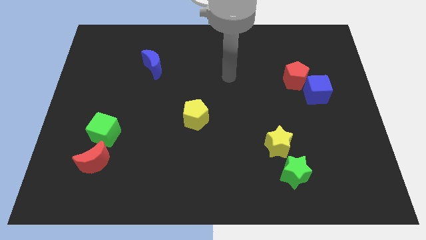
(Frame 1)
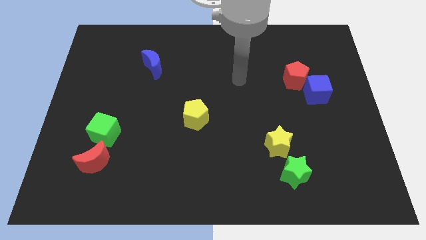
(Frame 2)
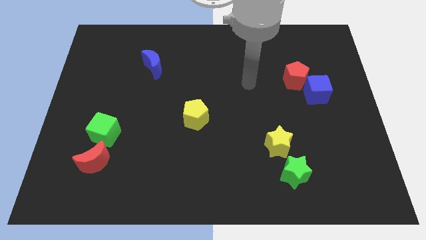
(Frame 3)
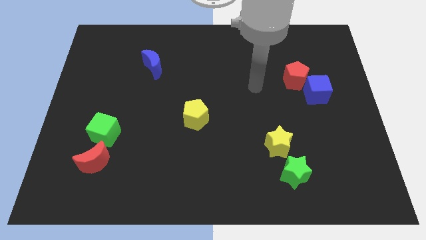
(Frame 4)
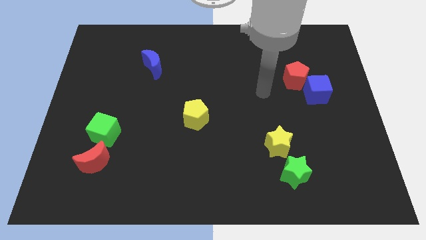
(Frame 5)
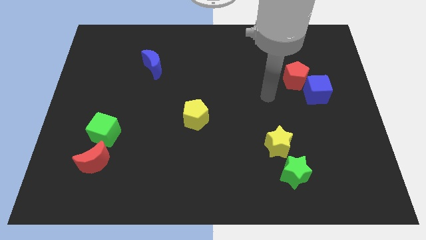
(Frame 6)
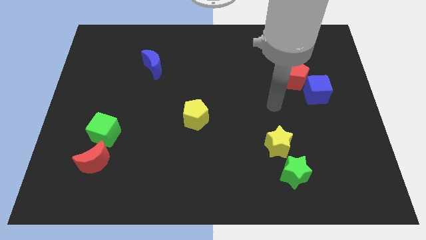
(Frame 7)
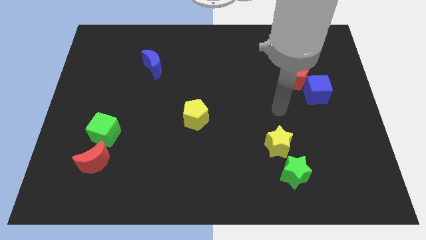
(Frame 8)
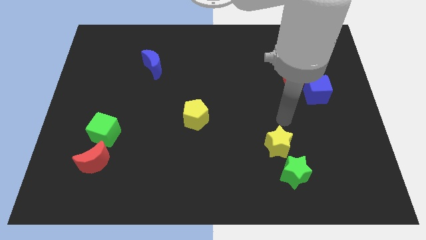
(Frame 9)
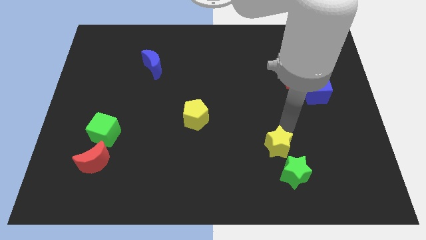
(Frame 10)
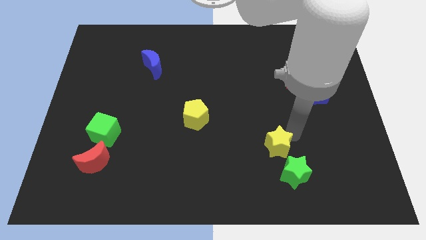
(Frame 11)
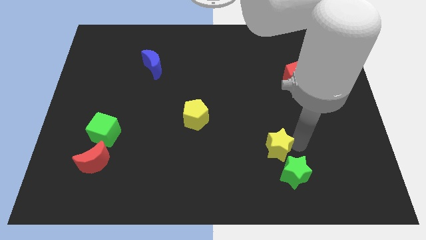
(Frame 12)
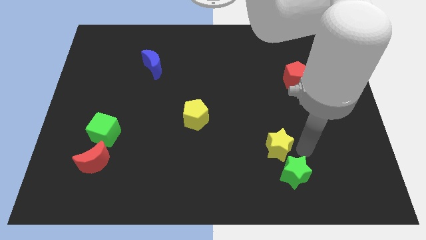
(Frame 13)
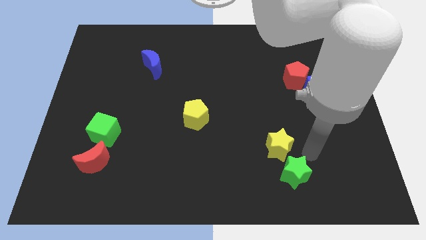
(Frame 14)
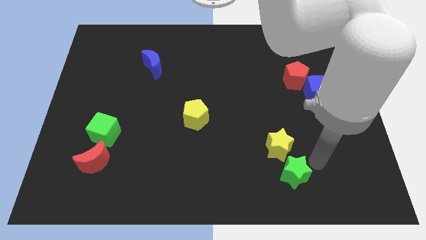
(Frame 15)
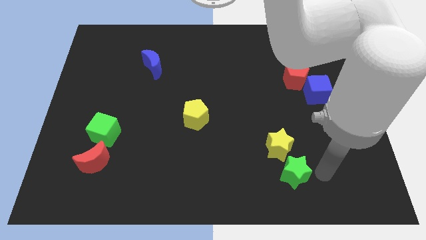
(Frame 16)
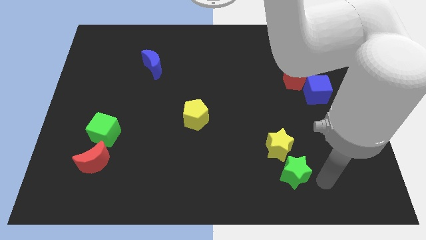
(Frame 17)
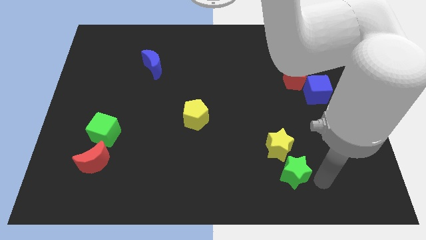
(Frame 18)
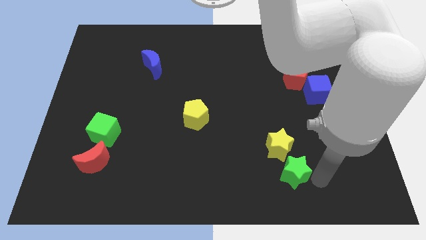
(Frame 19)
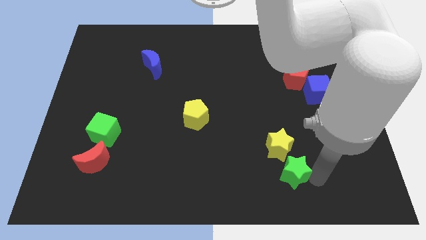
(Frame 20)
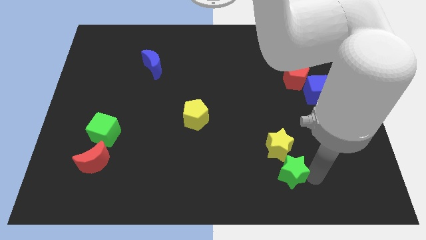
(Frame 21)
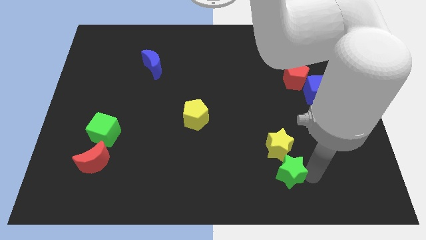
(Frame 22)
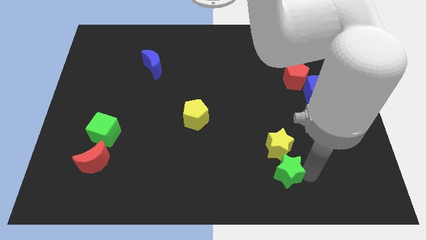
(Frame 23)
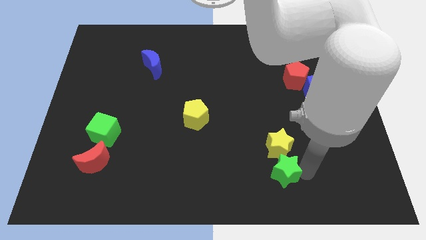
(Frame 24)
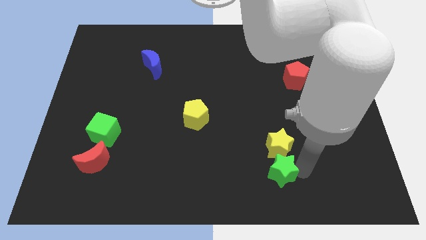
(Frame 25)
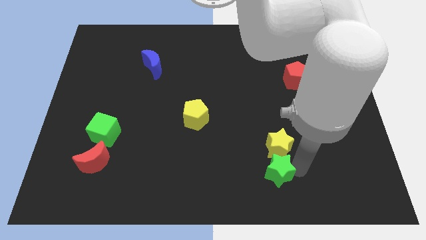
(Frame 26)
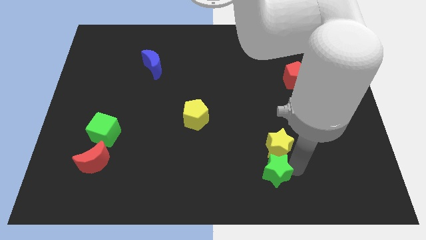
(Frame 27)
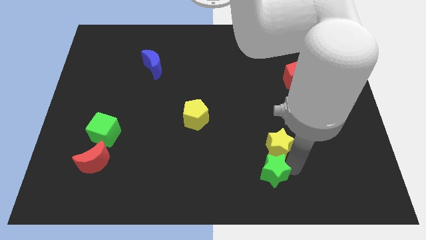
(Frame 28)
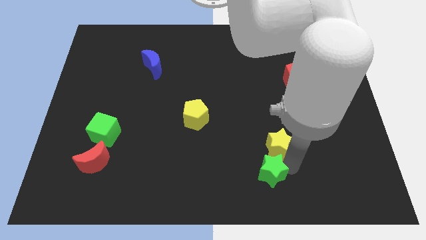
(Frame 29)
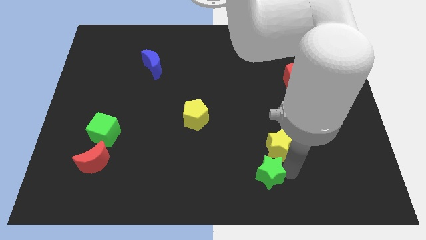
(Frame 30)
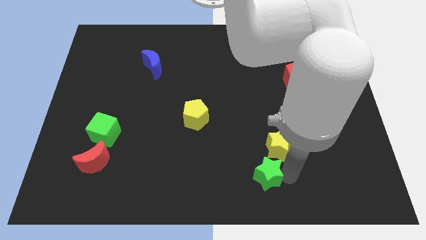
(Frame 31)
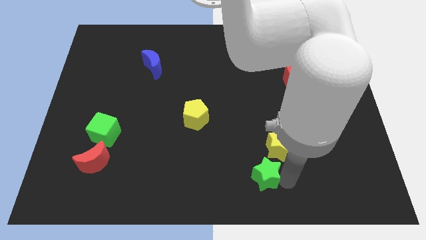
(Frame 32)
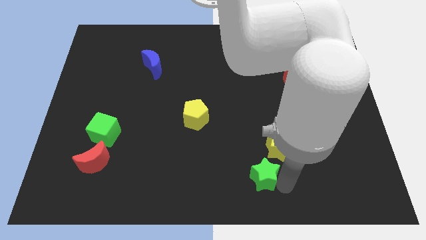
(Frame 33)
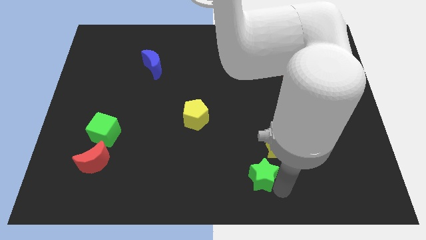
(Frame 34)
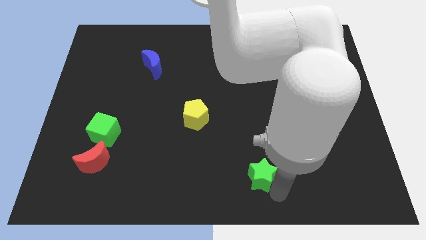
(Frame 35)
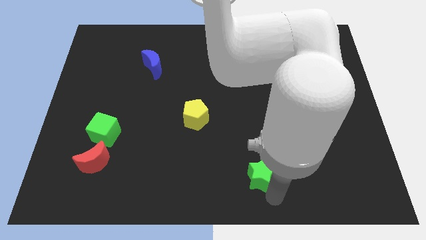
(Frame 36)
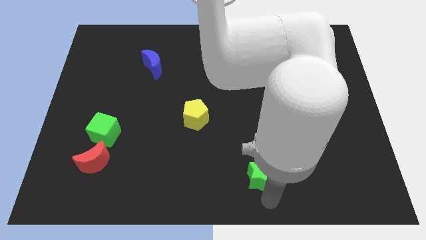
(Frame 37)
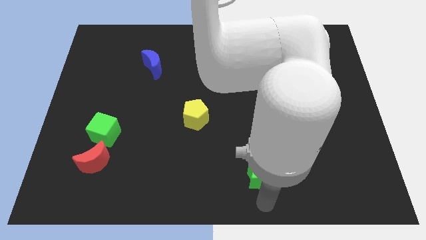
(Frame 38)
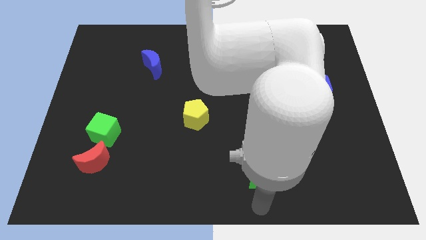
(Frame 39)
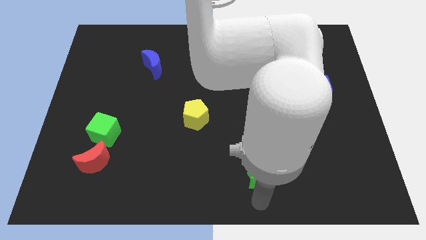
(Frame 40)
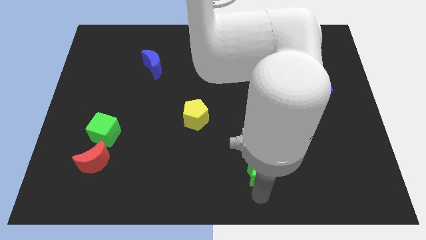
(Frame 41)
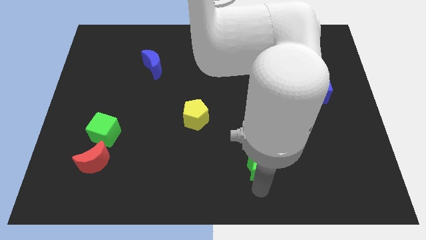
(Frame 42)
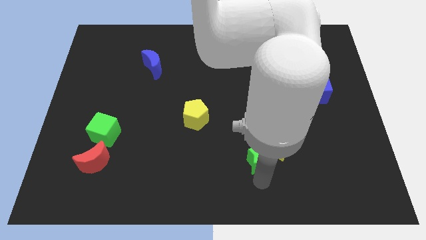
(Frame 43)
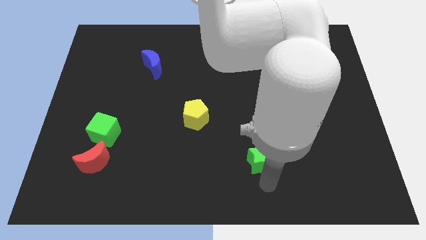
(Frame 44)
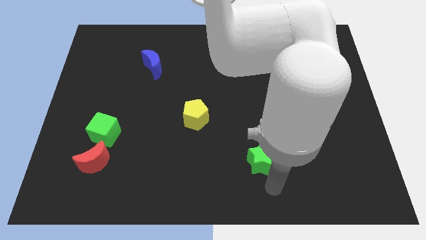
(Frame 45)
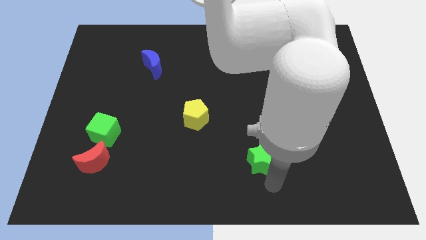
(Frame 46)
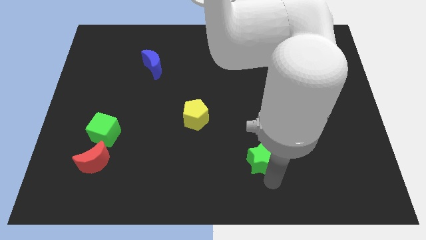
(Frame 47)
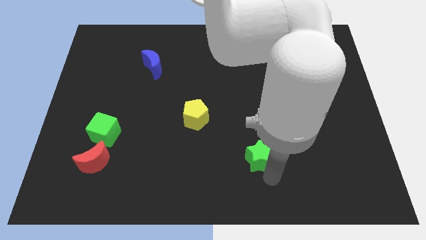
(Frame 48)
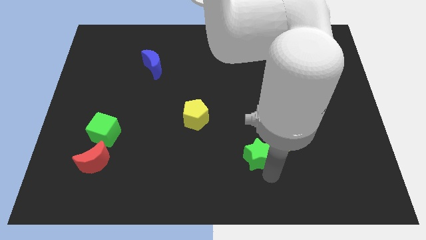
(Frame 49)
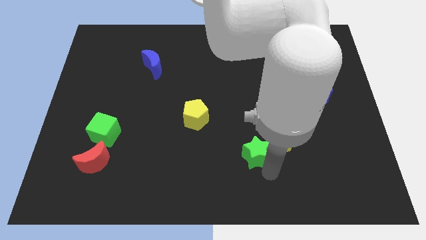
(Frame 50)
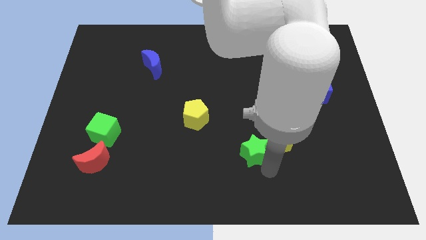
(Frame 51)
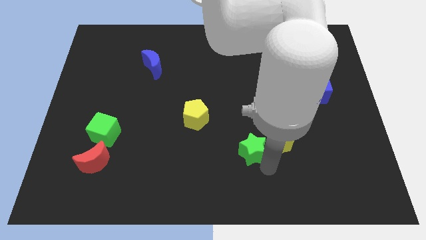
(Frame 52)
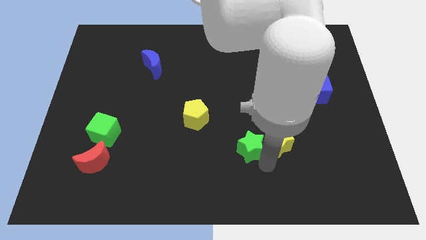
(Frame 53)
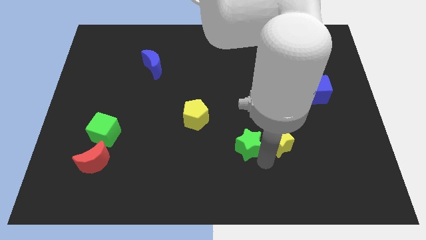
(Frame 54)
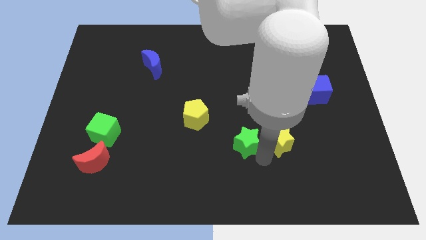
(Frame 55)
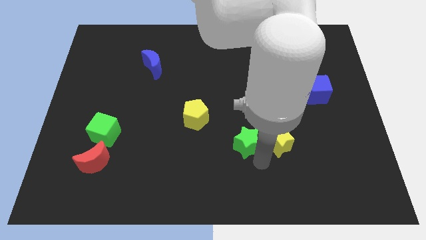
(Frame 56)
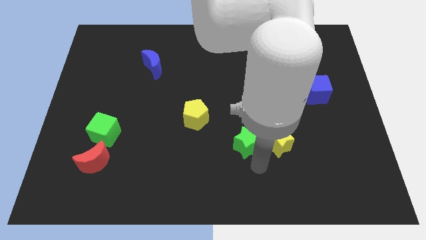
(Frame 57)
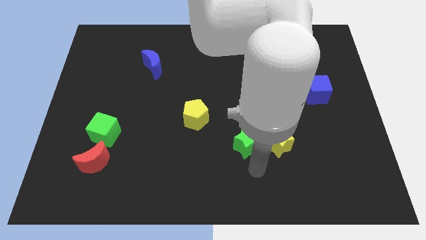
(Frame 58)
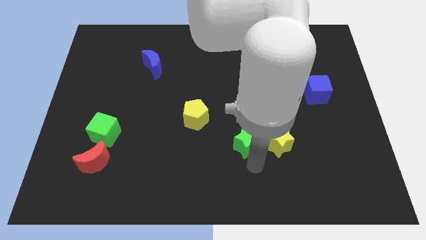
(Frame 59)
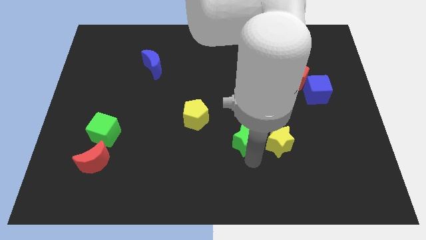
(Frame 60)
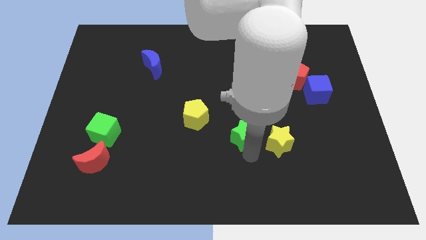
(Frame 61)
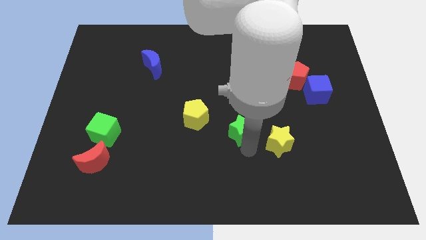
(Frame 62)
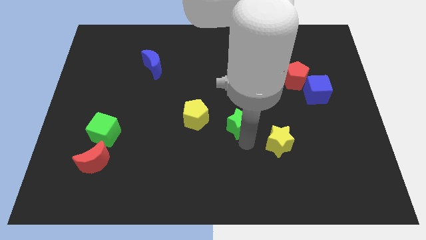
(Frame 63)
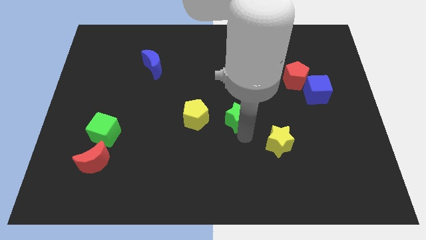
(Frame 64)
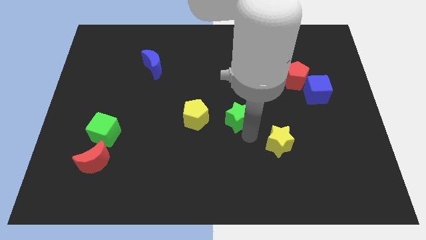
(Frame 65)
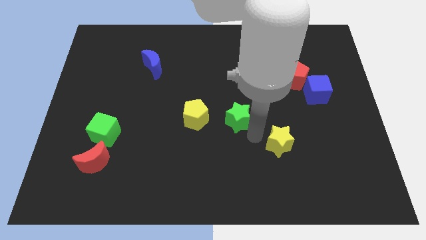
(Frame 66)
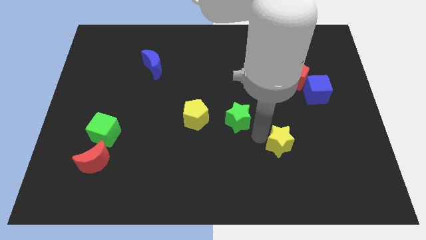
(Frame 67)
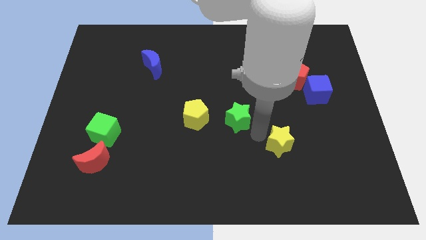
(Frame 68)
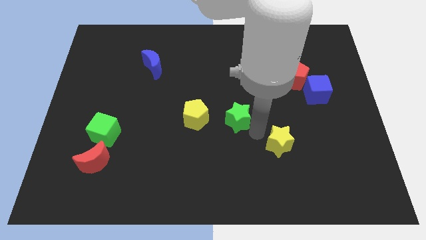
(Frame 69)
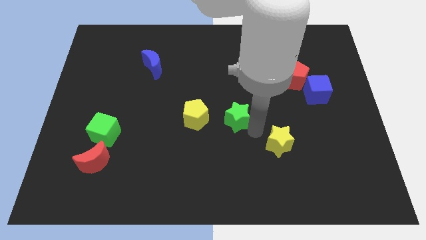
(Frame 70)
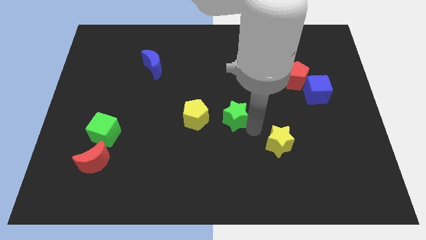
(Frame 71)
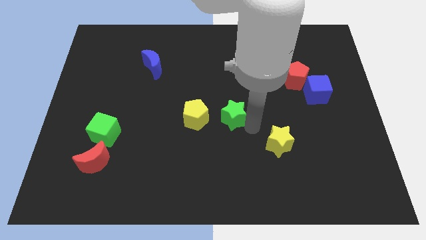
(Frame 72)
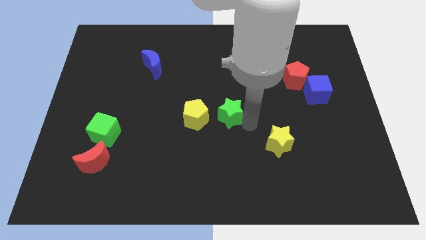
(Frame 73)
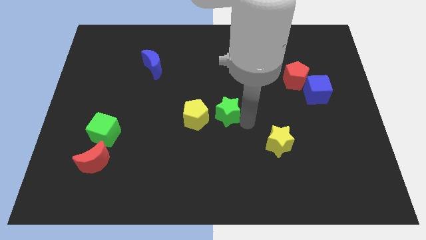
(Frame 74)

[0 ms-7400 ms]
move the green star diagonally upwards and left

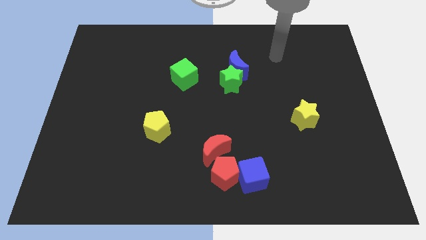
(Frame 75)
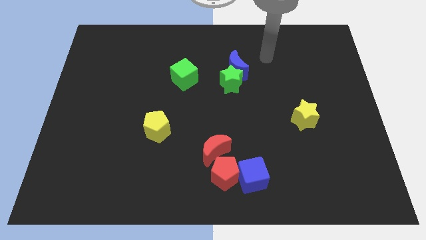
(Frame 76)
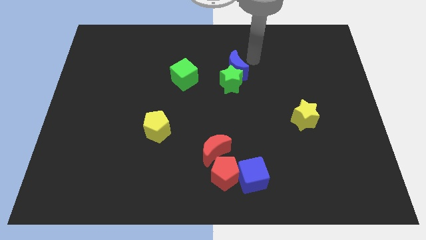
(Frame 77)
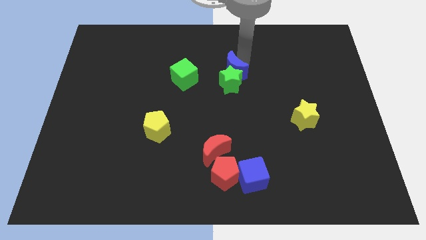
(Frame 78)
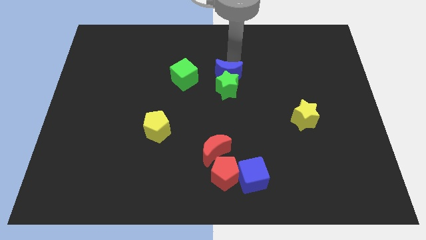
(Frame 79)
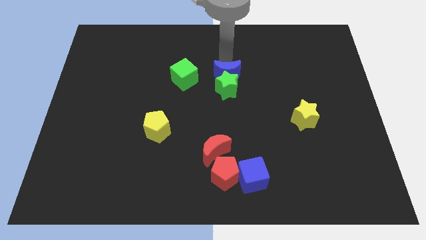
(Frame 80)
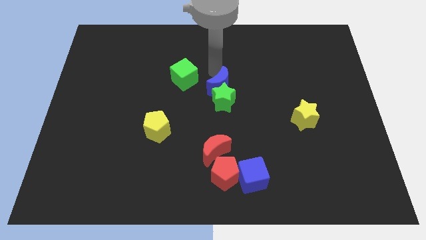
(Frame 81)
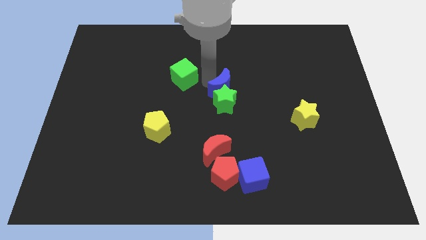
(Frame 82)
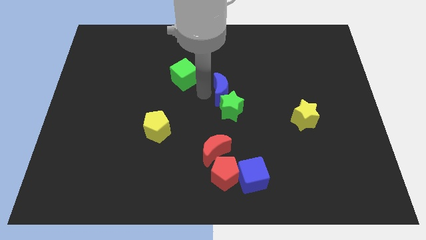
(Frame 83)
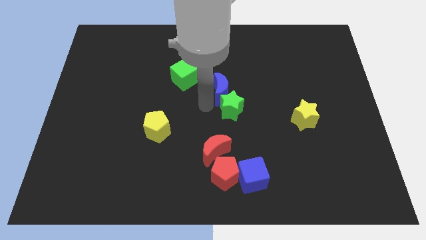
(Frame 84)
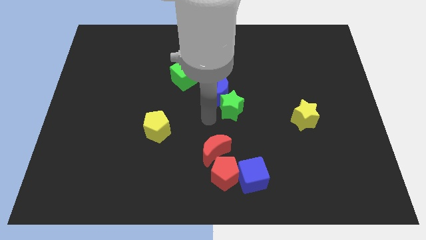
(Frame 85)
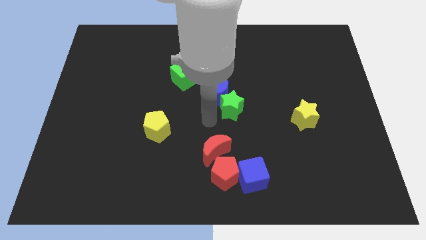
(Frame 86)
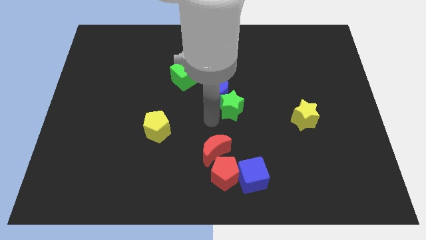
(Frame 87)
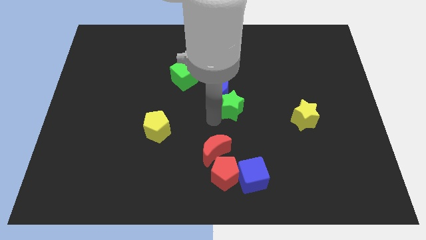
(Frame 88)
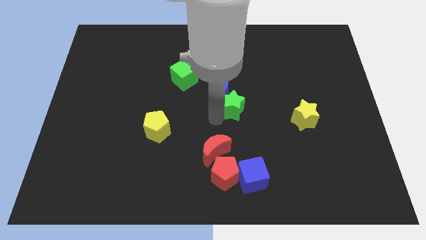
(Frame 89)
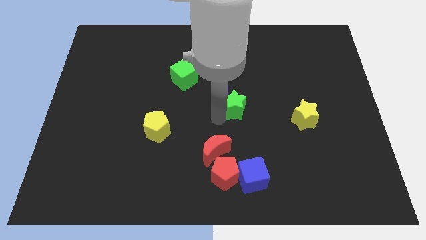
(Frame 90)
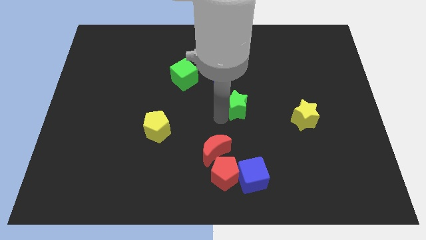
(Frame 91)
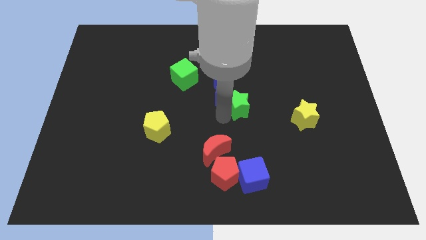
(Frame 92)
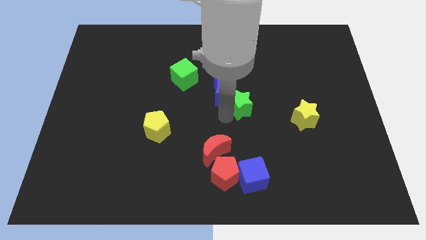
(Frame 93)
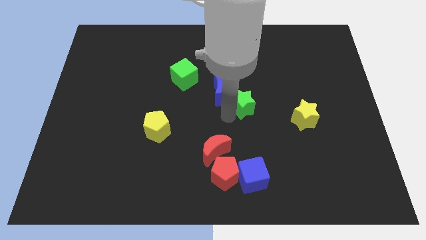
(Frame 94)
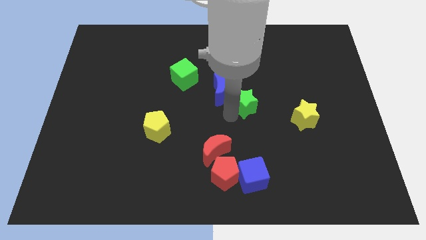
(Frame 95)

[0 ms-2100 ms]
slide the green star diagonally downwards and right a little bit
